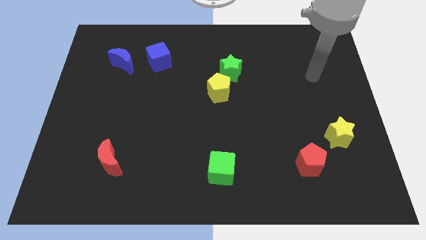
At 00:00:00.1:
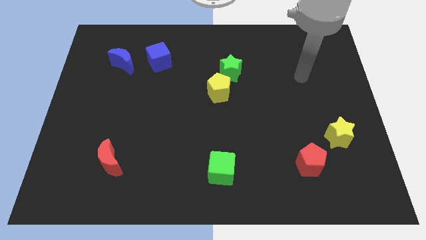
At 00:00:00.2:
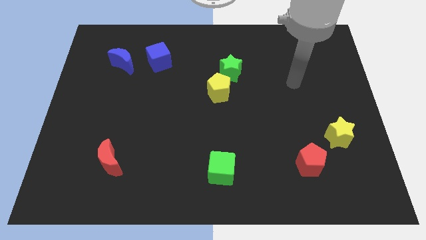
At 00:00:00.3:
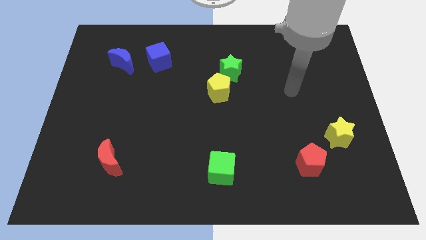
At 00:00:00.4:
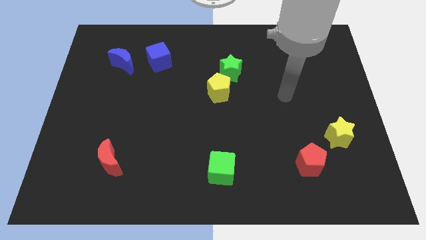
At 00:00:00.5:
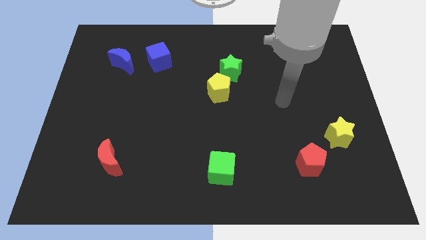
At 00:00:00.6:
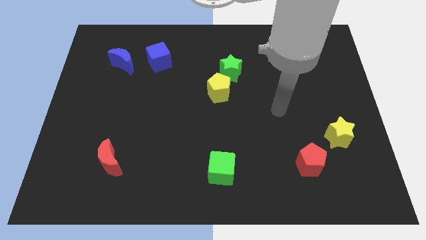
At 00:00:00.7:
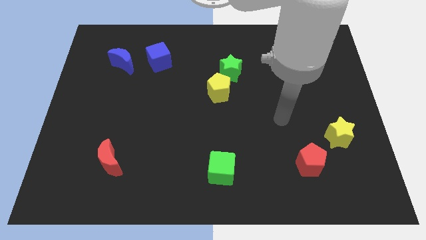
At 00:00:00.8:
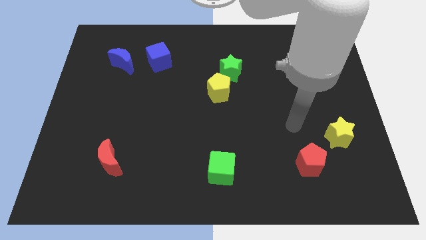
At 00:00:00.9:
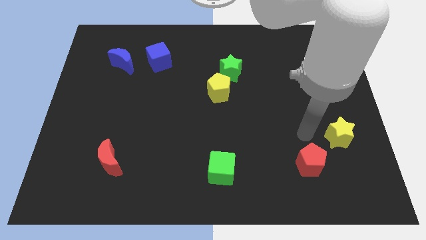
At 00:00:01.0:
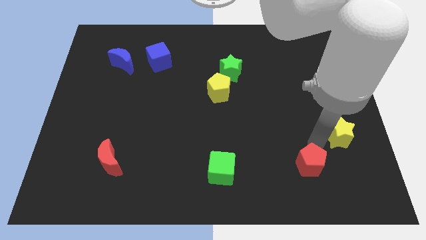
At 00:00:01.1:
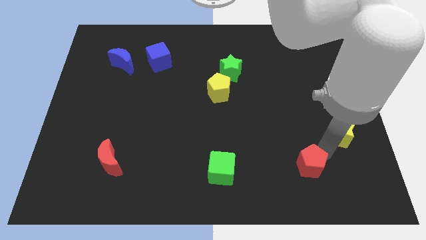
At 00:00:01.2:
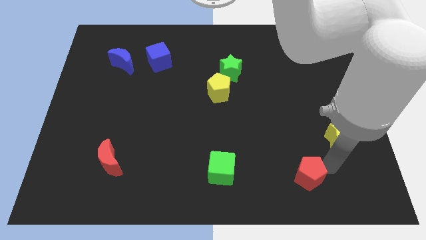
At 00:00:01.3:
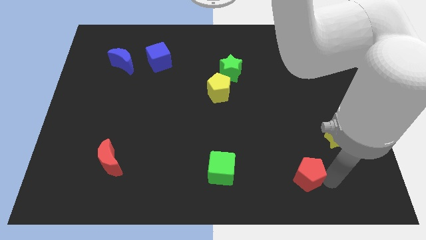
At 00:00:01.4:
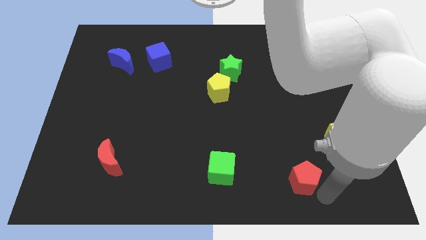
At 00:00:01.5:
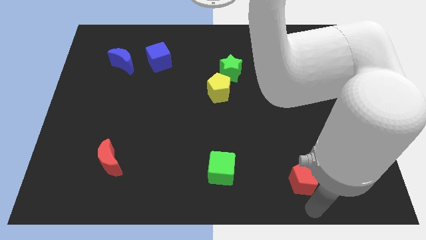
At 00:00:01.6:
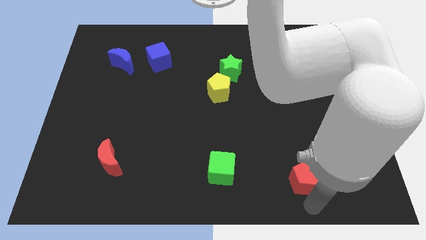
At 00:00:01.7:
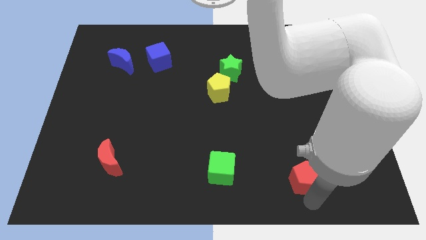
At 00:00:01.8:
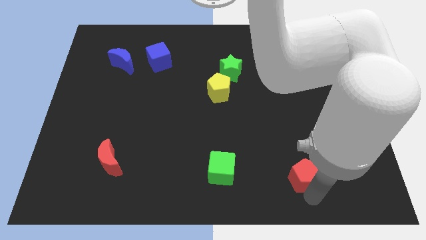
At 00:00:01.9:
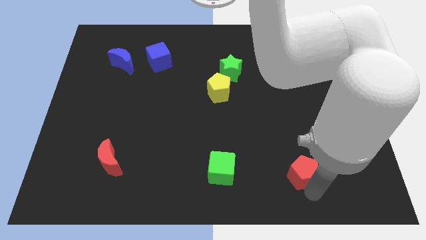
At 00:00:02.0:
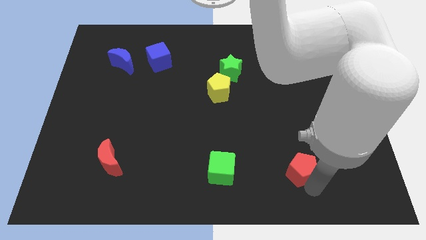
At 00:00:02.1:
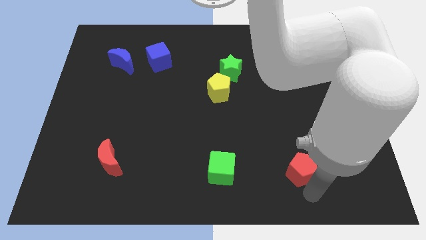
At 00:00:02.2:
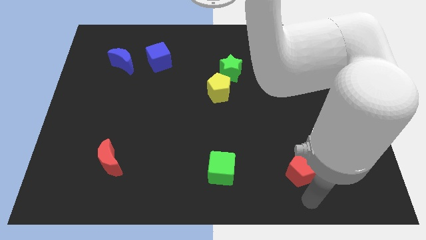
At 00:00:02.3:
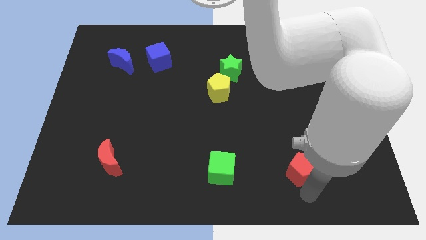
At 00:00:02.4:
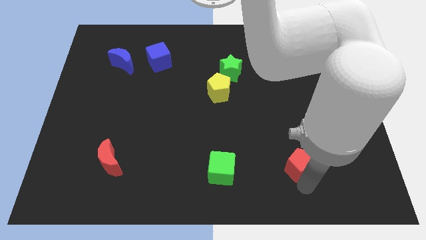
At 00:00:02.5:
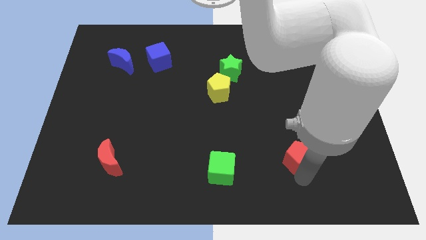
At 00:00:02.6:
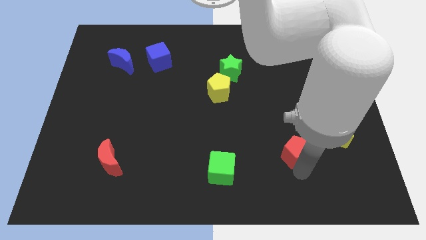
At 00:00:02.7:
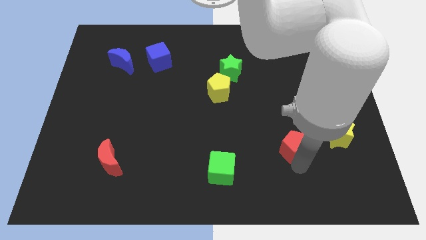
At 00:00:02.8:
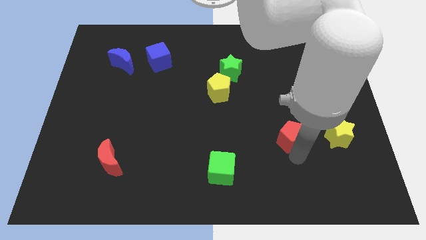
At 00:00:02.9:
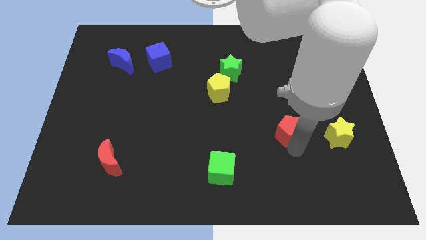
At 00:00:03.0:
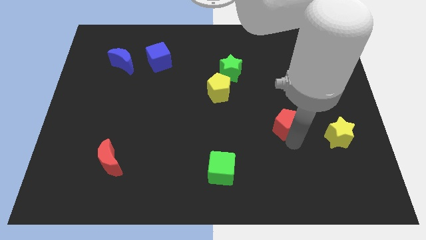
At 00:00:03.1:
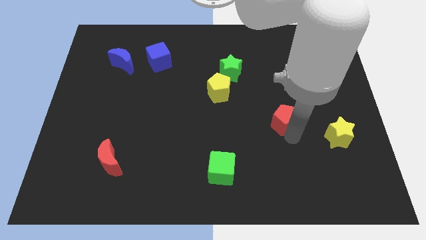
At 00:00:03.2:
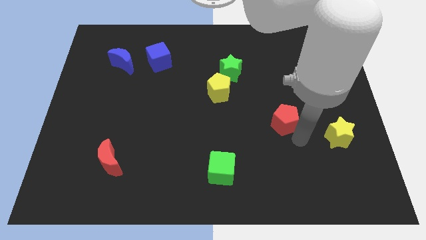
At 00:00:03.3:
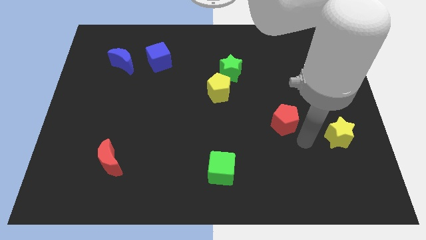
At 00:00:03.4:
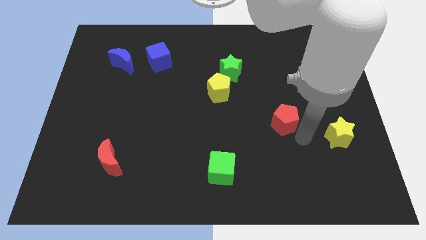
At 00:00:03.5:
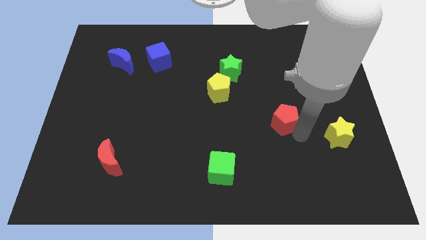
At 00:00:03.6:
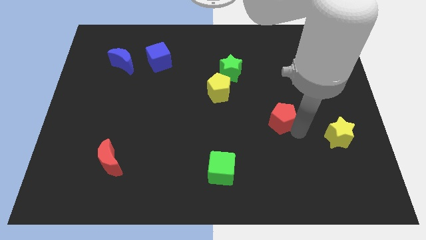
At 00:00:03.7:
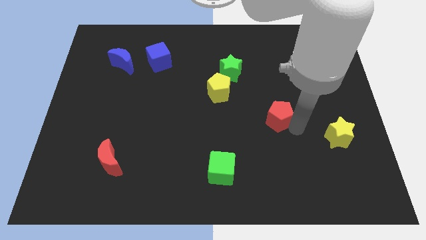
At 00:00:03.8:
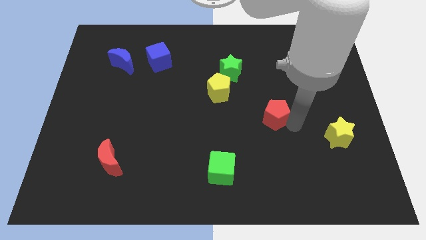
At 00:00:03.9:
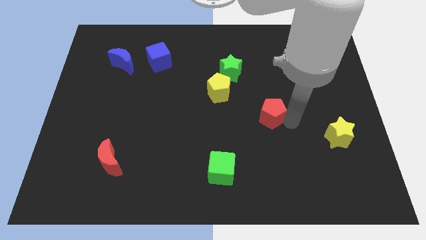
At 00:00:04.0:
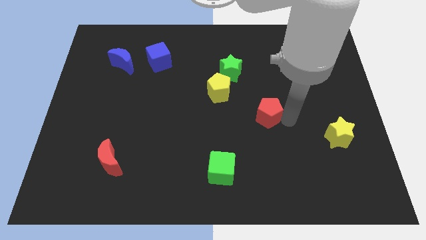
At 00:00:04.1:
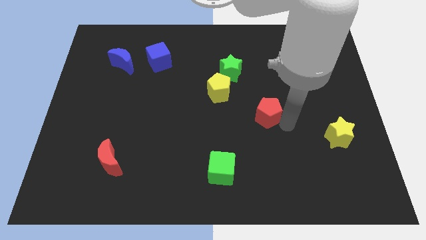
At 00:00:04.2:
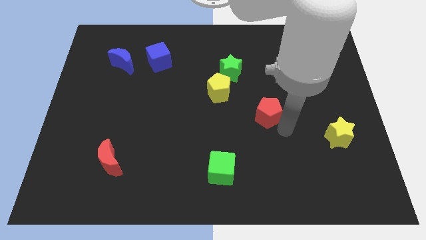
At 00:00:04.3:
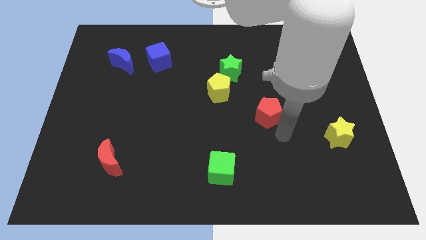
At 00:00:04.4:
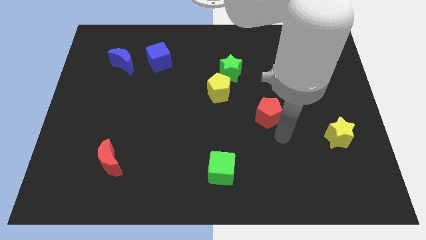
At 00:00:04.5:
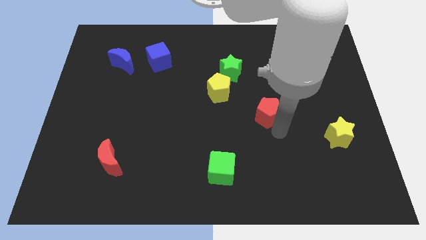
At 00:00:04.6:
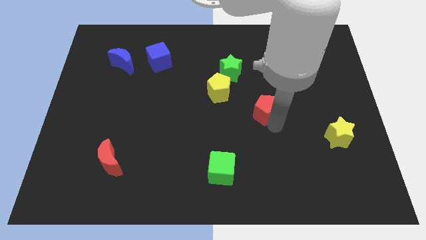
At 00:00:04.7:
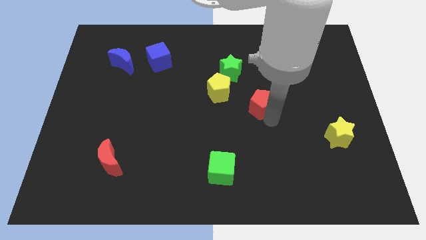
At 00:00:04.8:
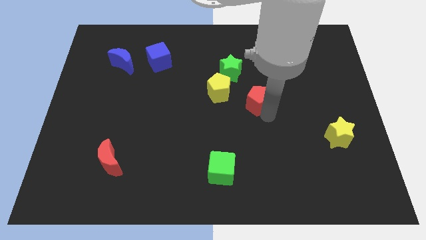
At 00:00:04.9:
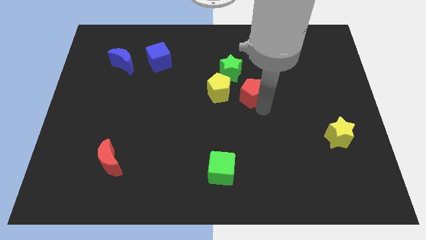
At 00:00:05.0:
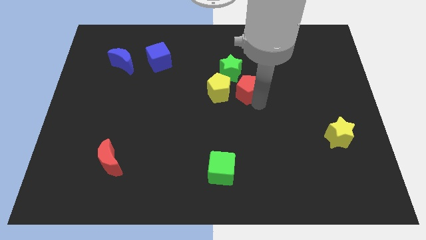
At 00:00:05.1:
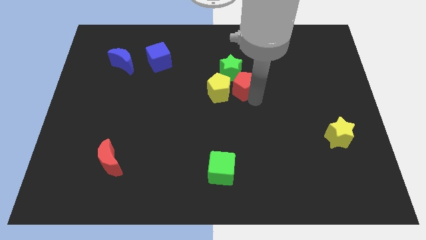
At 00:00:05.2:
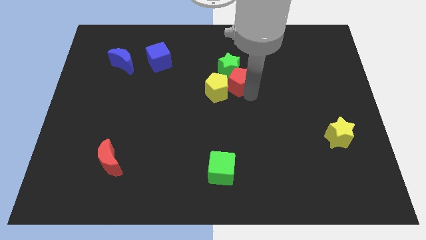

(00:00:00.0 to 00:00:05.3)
put the red pentagon towards the green star
